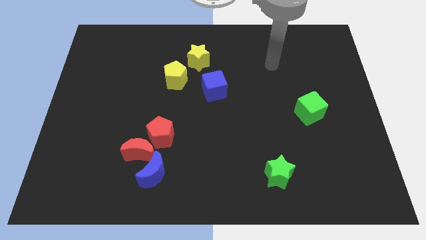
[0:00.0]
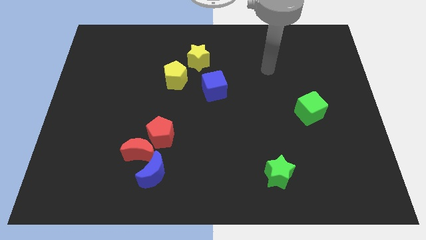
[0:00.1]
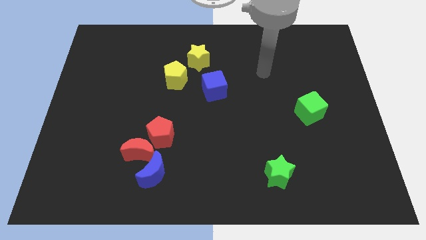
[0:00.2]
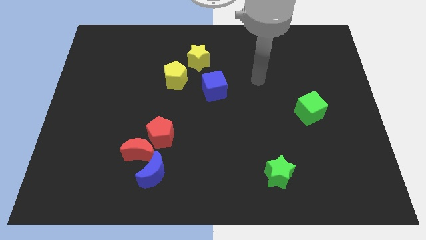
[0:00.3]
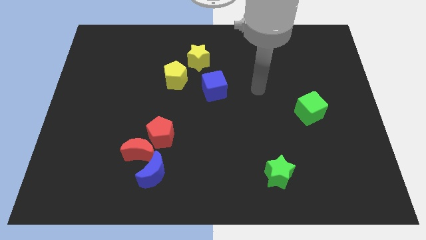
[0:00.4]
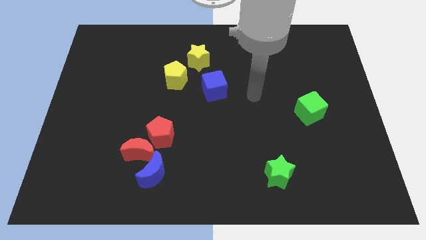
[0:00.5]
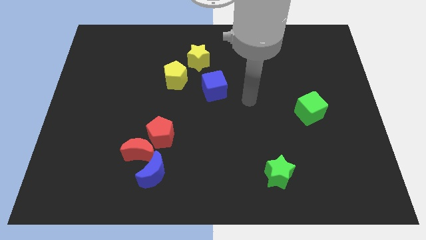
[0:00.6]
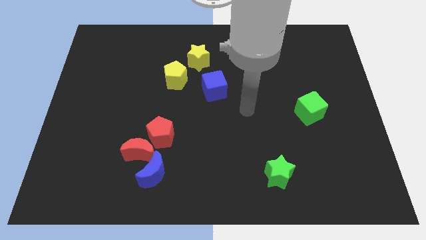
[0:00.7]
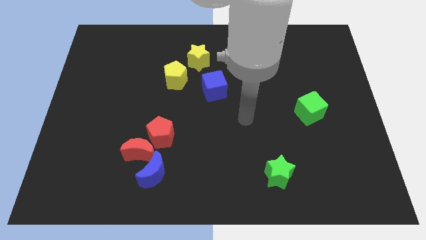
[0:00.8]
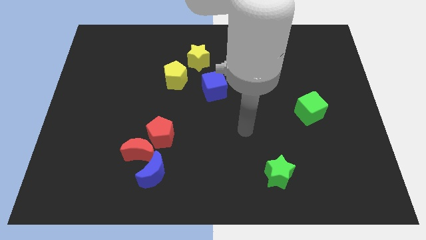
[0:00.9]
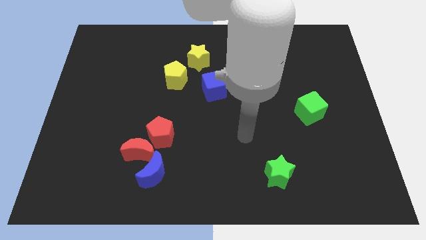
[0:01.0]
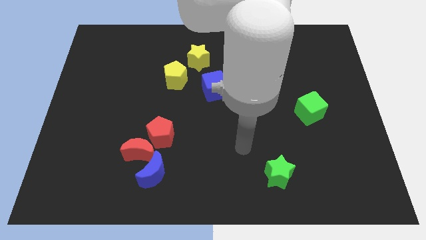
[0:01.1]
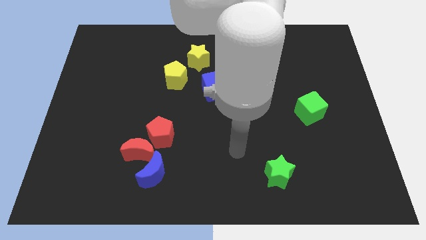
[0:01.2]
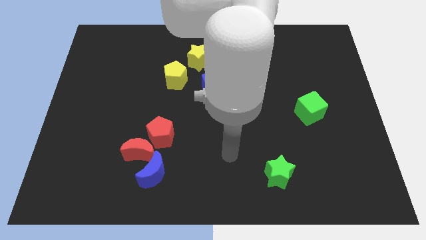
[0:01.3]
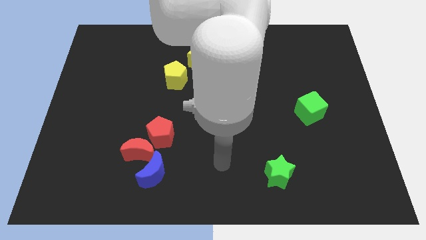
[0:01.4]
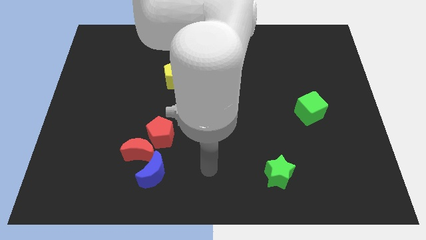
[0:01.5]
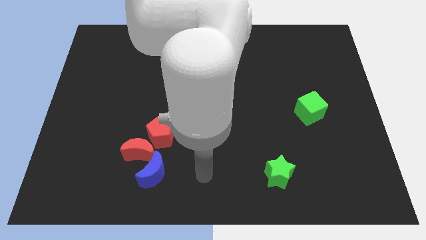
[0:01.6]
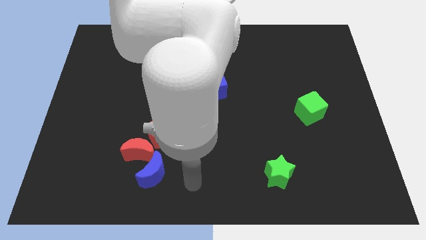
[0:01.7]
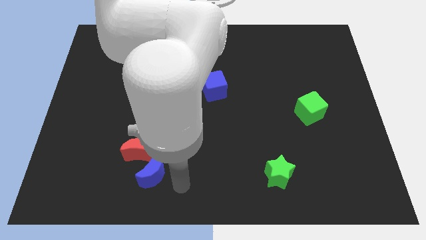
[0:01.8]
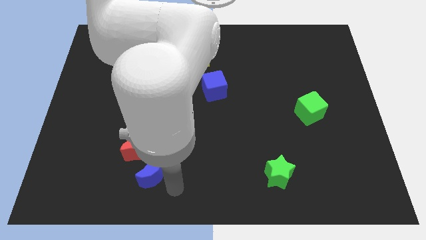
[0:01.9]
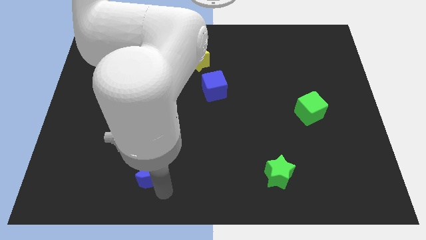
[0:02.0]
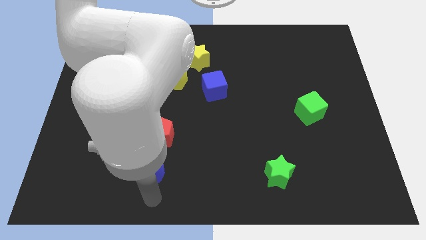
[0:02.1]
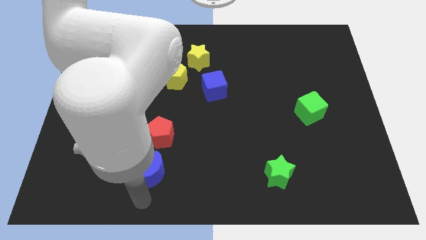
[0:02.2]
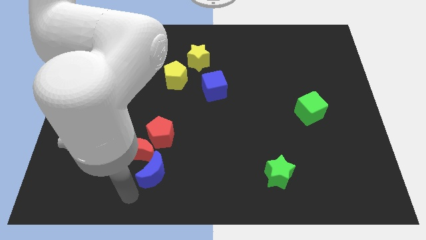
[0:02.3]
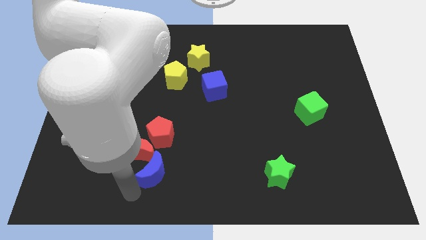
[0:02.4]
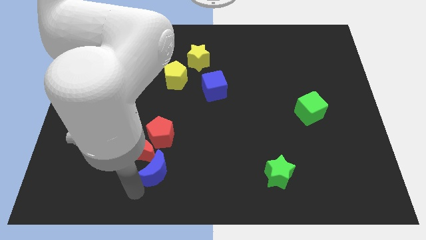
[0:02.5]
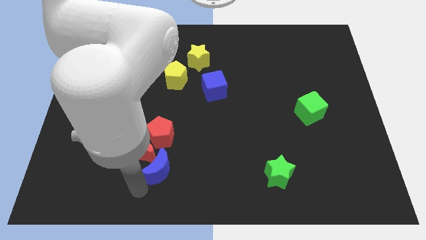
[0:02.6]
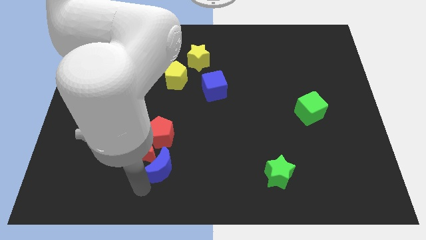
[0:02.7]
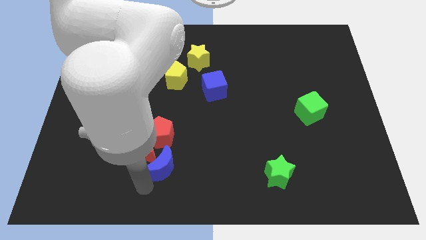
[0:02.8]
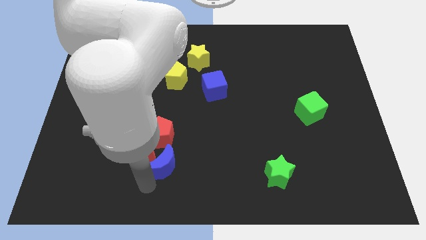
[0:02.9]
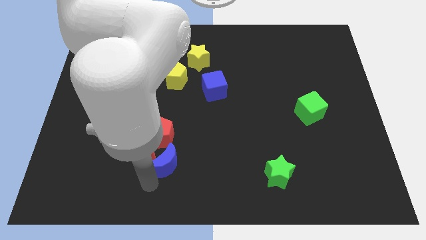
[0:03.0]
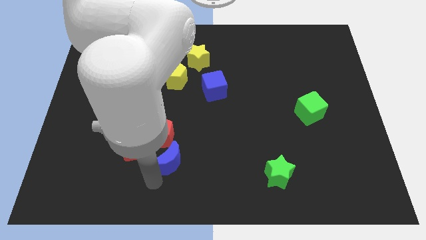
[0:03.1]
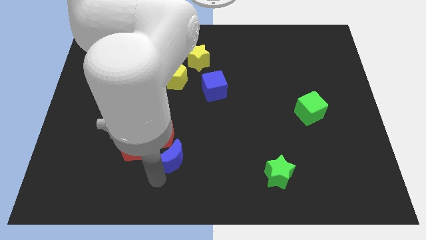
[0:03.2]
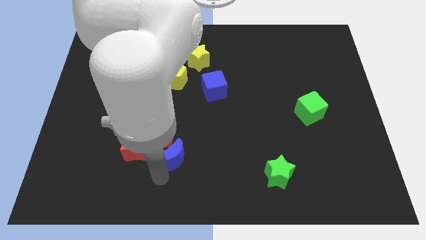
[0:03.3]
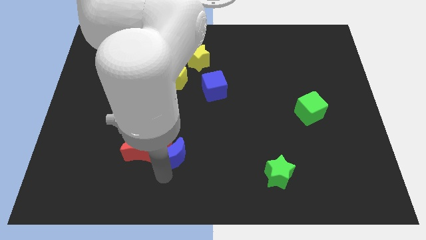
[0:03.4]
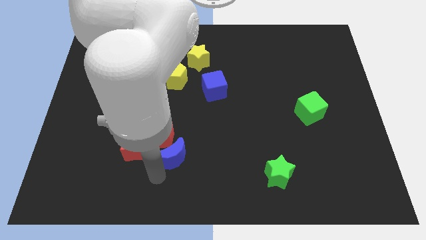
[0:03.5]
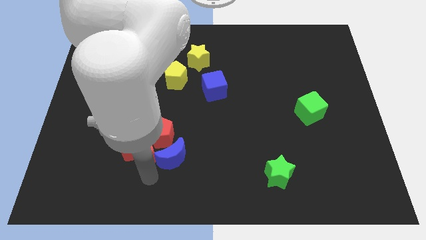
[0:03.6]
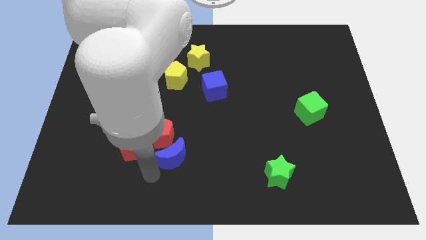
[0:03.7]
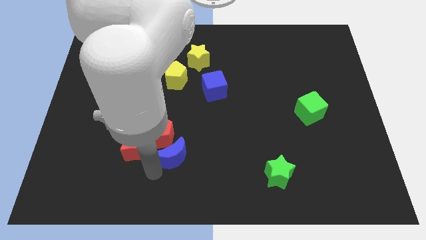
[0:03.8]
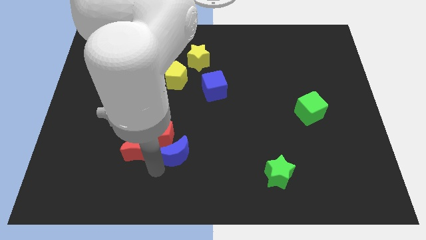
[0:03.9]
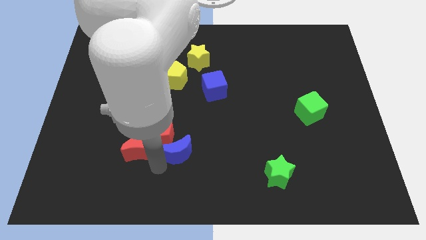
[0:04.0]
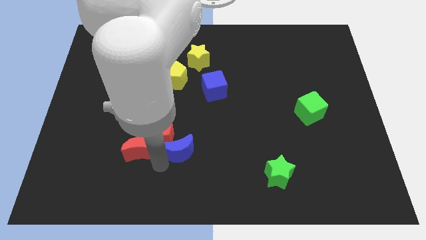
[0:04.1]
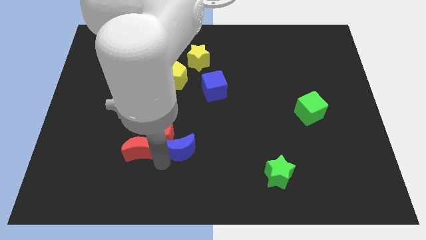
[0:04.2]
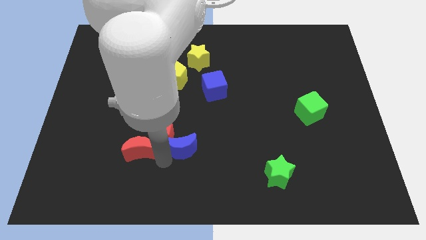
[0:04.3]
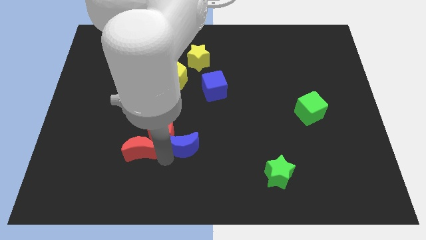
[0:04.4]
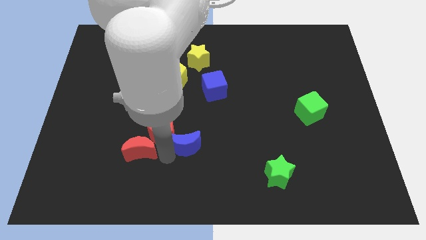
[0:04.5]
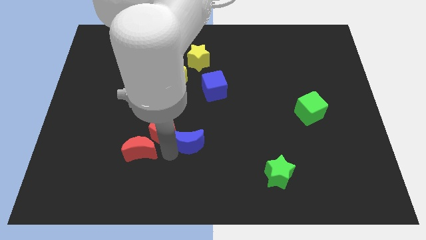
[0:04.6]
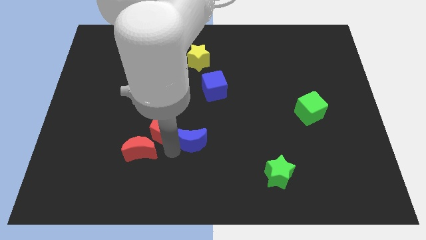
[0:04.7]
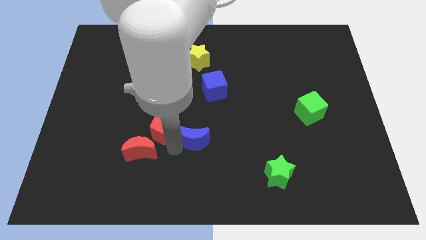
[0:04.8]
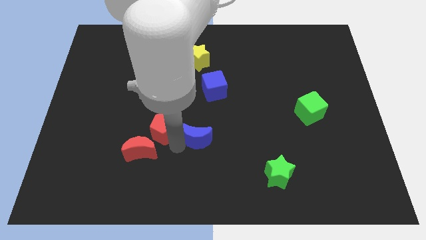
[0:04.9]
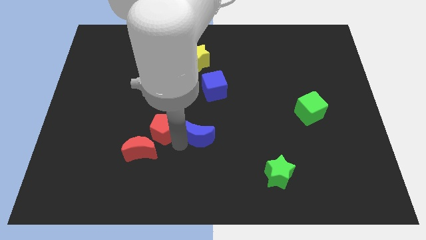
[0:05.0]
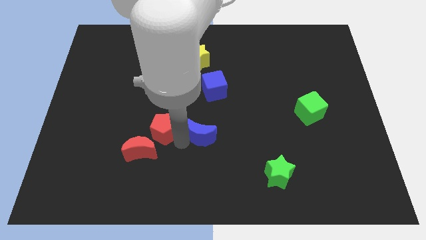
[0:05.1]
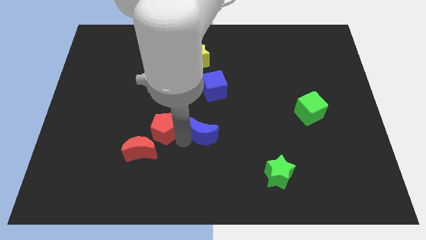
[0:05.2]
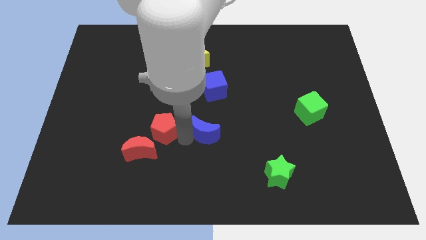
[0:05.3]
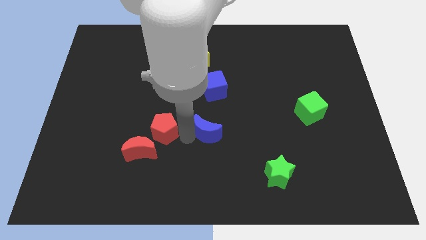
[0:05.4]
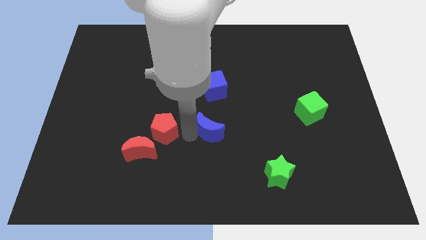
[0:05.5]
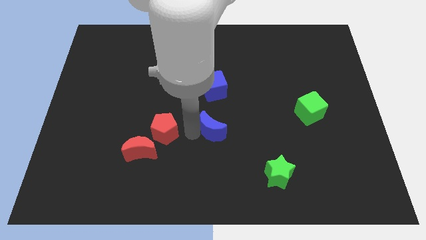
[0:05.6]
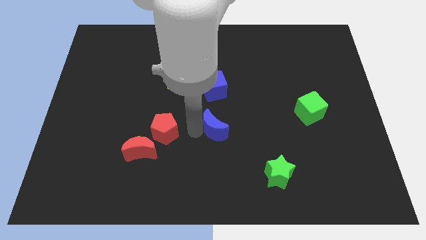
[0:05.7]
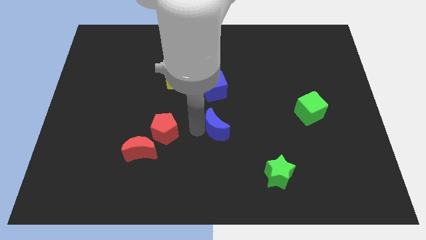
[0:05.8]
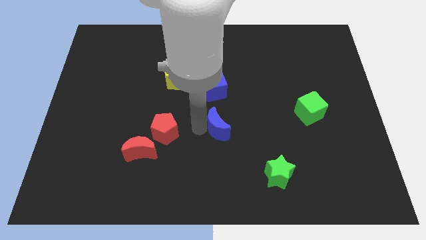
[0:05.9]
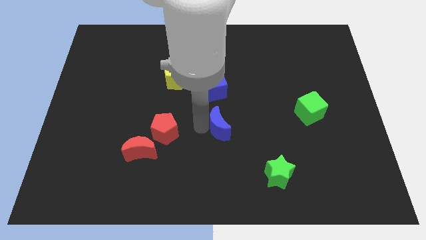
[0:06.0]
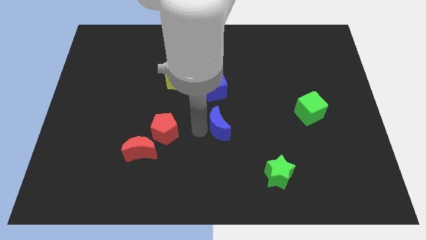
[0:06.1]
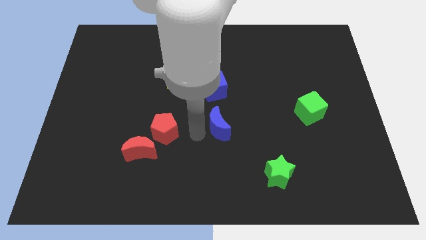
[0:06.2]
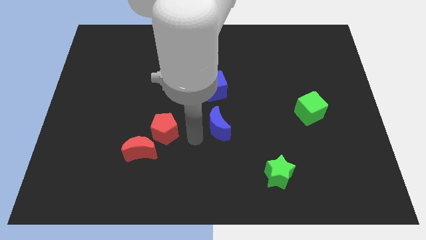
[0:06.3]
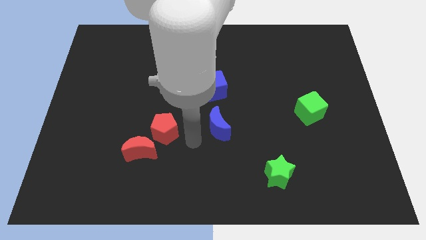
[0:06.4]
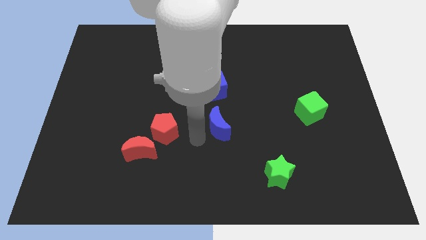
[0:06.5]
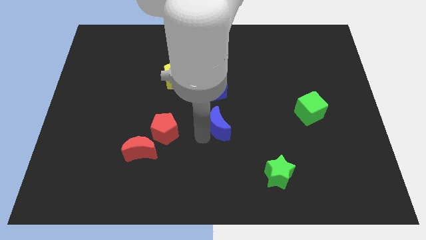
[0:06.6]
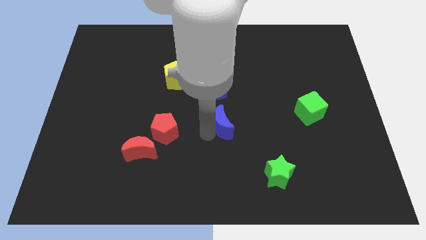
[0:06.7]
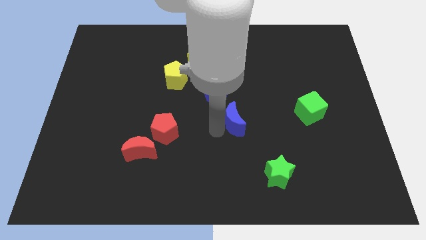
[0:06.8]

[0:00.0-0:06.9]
slide the blue moon up and right diagonally

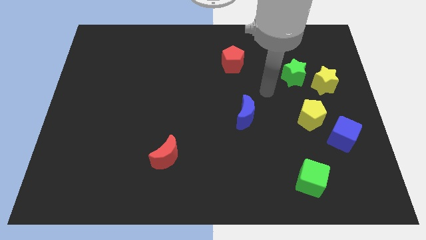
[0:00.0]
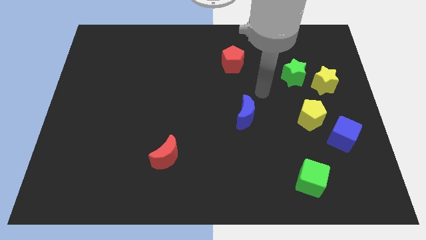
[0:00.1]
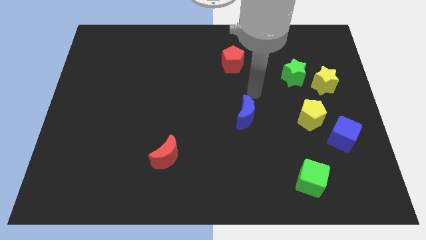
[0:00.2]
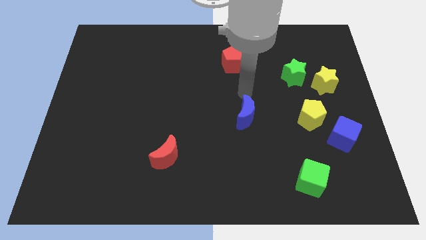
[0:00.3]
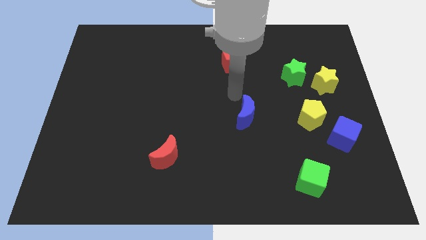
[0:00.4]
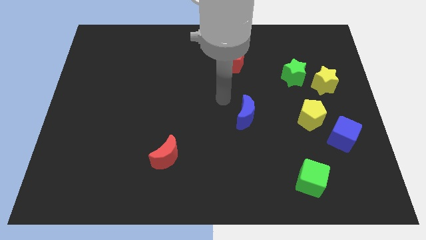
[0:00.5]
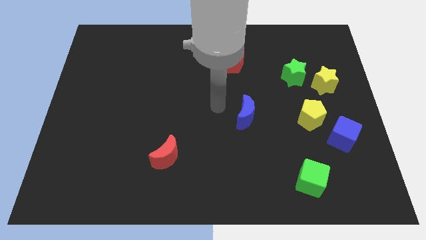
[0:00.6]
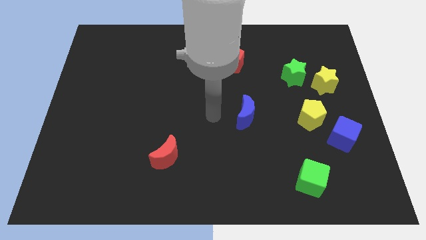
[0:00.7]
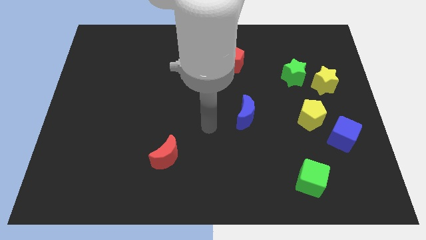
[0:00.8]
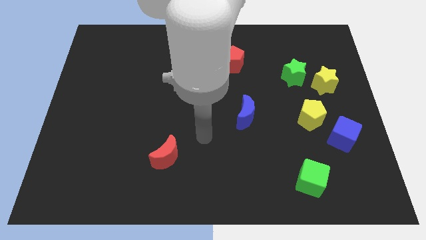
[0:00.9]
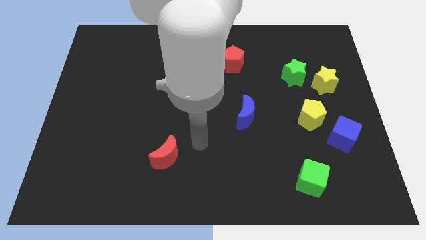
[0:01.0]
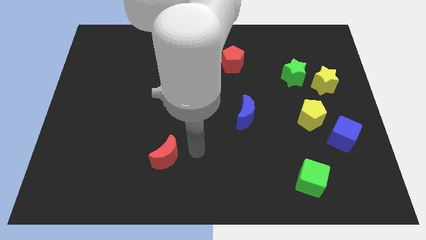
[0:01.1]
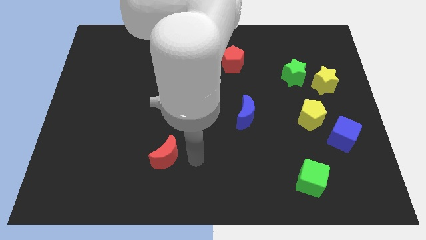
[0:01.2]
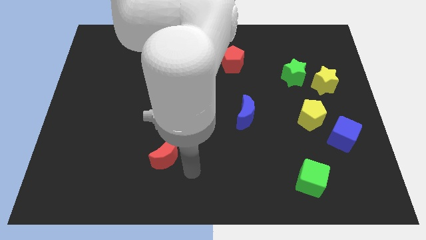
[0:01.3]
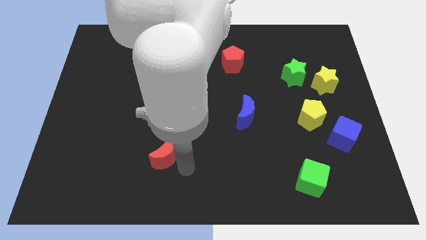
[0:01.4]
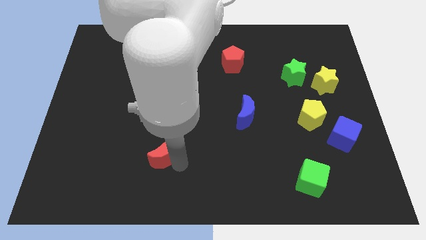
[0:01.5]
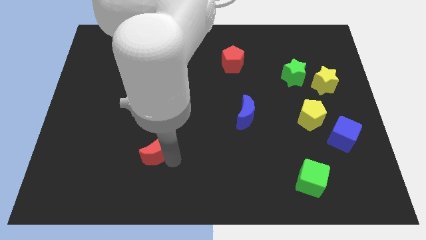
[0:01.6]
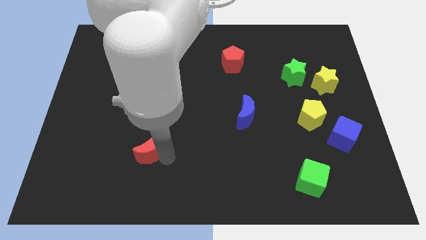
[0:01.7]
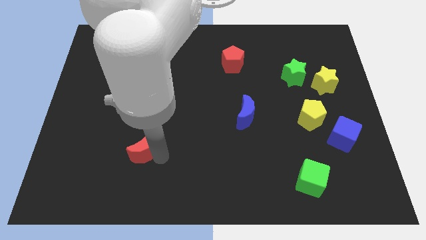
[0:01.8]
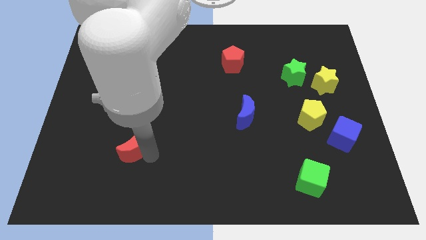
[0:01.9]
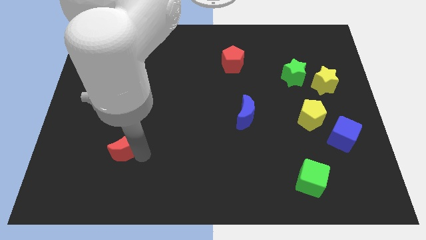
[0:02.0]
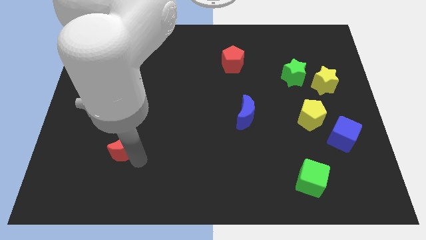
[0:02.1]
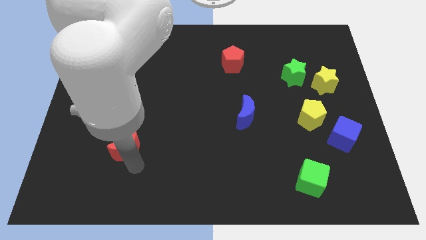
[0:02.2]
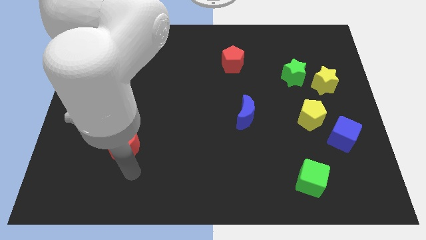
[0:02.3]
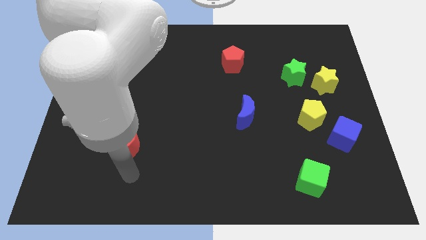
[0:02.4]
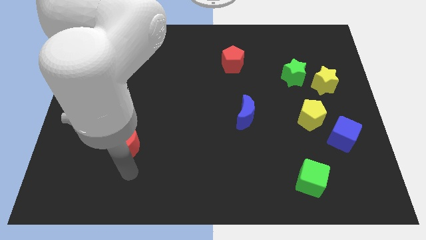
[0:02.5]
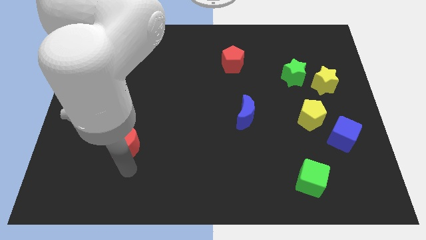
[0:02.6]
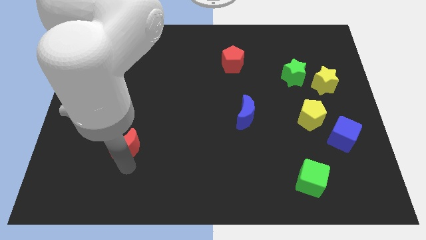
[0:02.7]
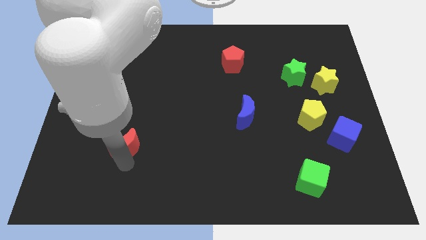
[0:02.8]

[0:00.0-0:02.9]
move the red moon diagonally up and left a little bit
